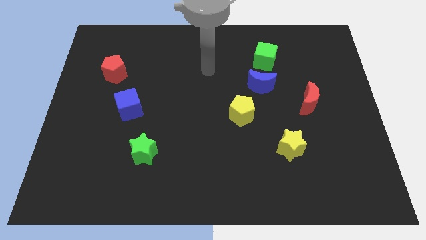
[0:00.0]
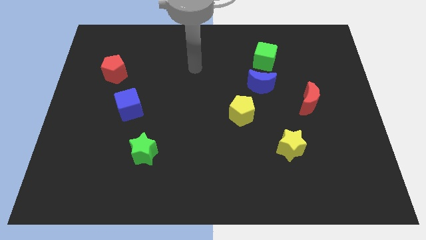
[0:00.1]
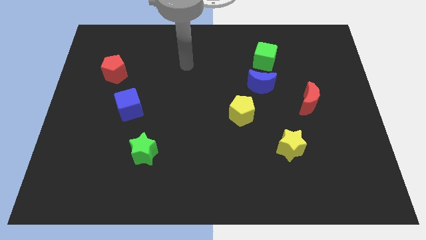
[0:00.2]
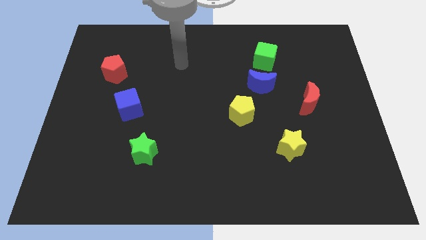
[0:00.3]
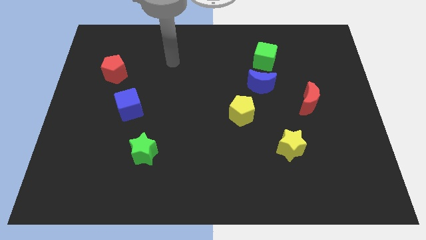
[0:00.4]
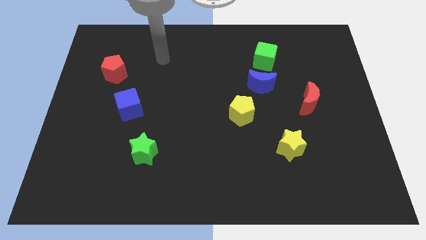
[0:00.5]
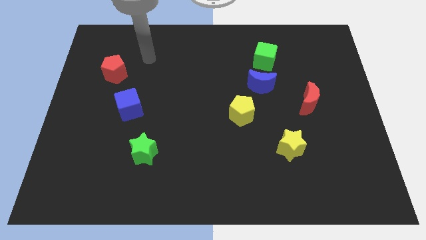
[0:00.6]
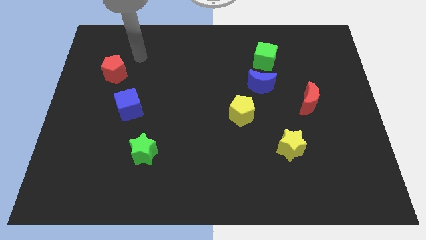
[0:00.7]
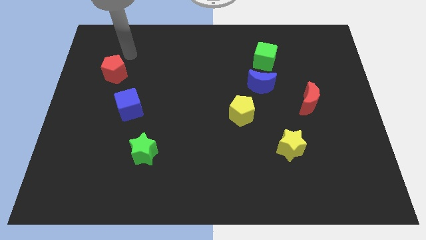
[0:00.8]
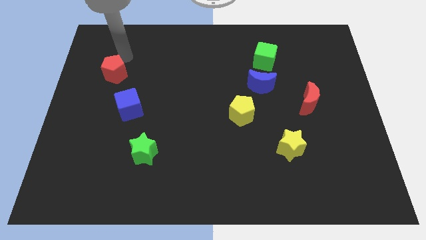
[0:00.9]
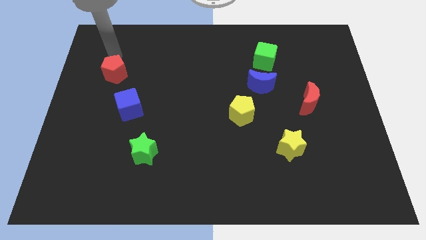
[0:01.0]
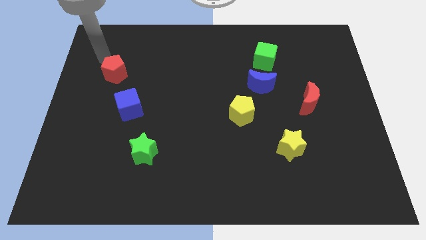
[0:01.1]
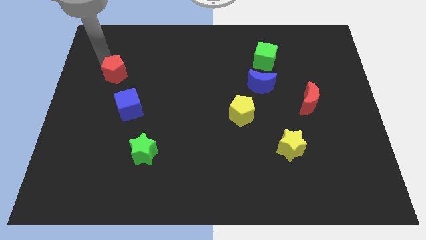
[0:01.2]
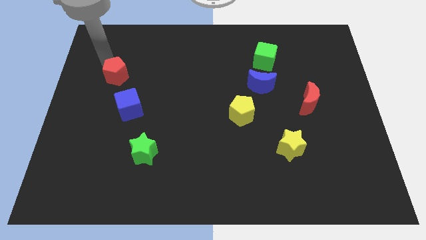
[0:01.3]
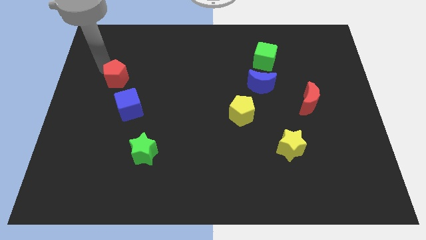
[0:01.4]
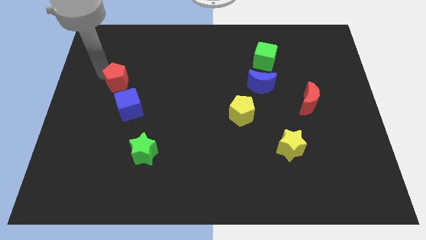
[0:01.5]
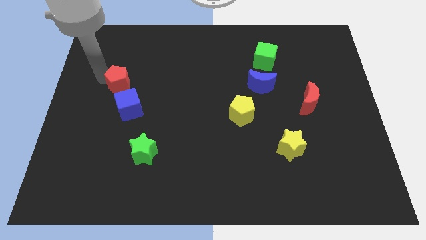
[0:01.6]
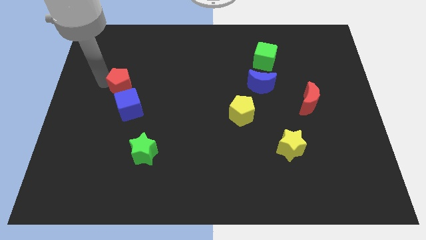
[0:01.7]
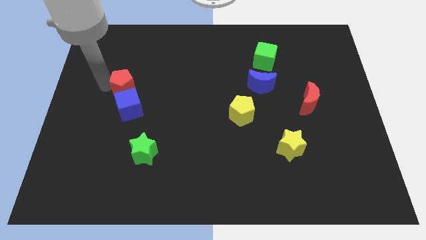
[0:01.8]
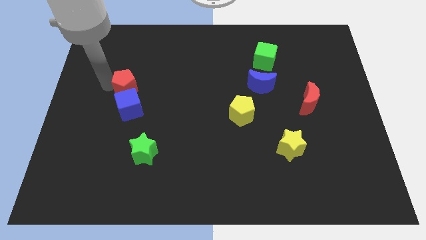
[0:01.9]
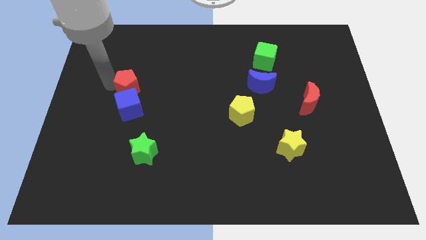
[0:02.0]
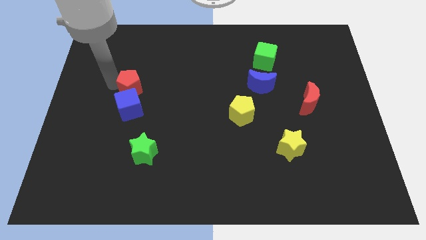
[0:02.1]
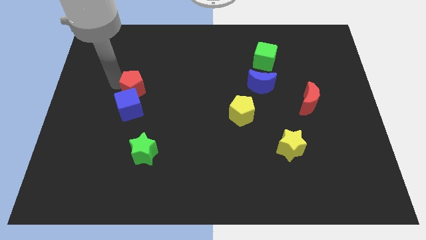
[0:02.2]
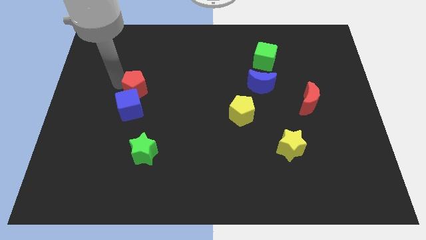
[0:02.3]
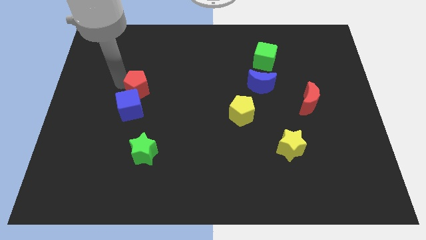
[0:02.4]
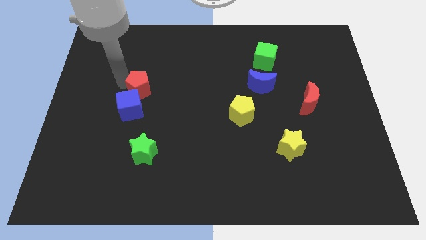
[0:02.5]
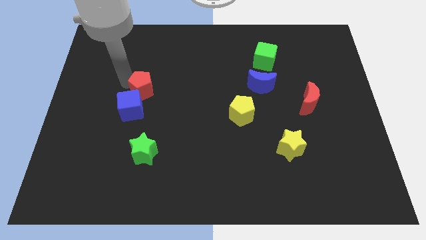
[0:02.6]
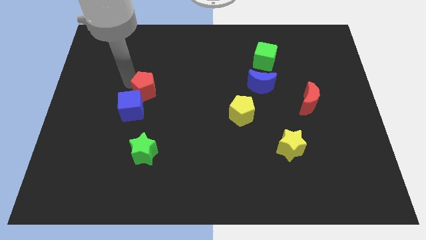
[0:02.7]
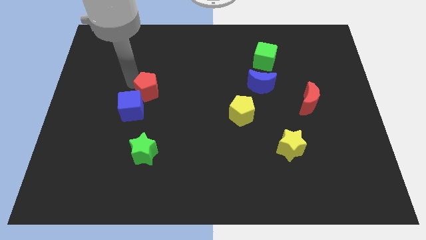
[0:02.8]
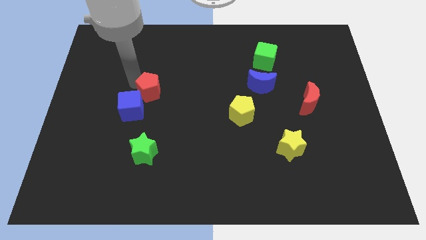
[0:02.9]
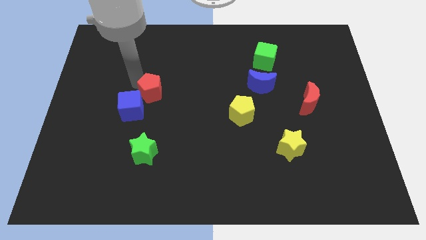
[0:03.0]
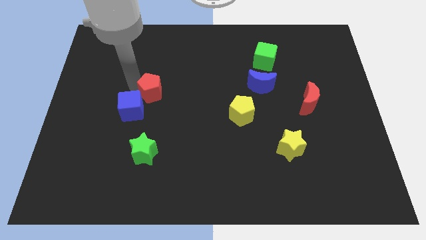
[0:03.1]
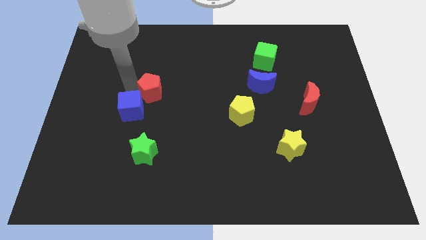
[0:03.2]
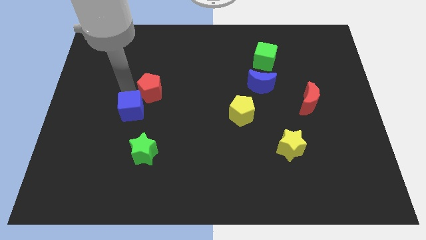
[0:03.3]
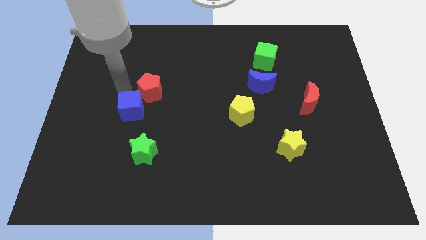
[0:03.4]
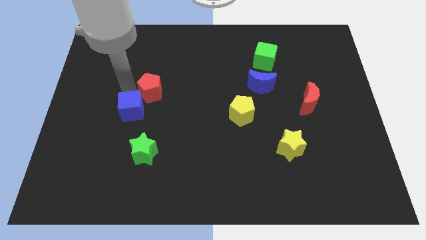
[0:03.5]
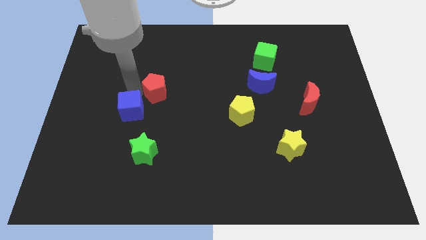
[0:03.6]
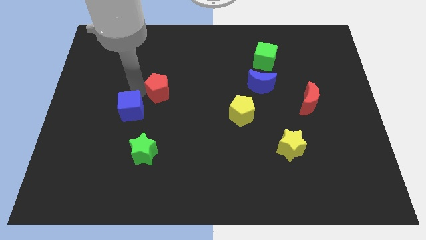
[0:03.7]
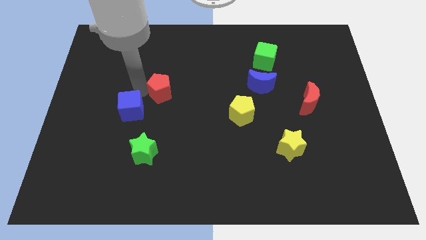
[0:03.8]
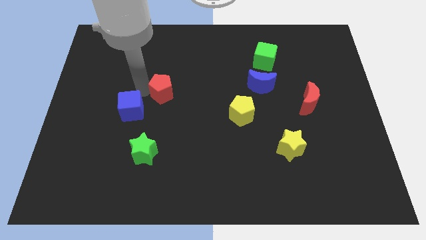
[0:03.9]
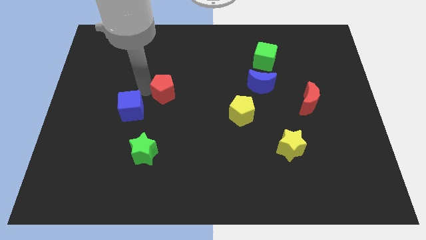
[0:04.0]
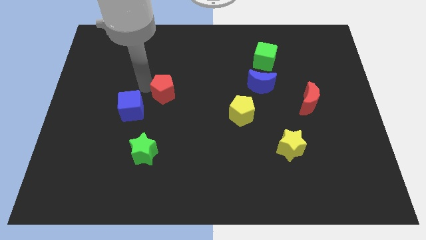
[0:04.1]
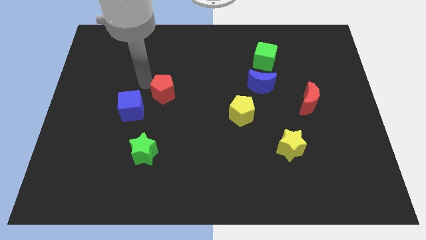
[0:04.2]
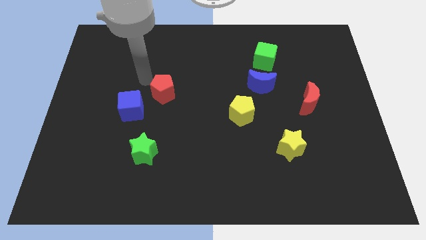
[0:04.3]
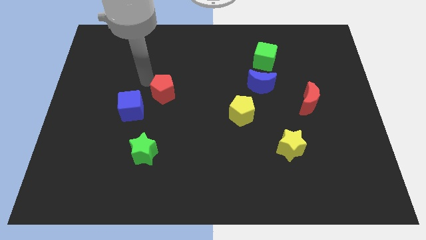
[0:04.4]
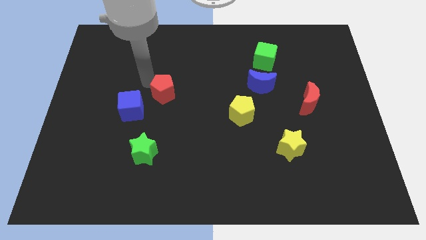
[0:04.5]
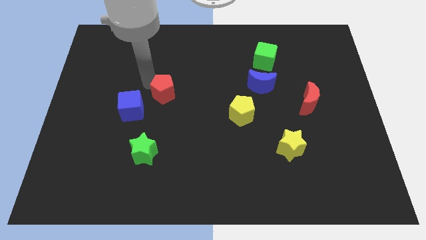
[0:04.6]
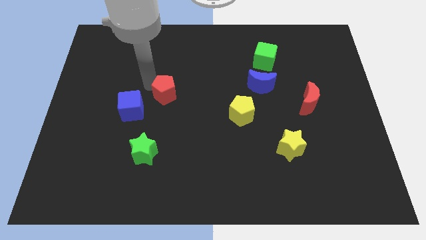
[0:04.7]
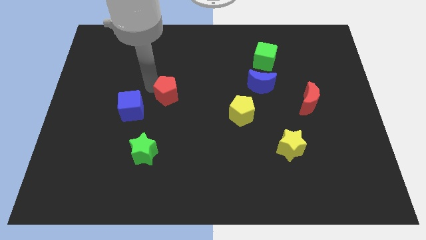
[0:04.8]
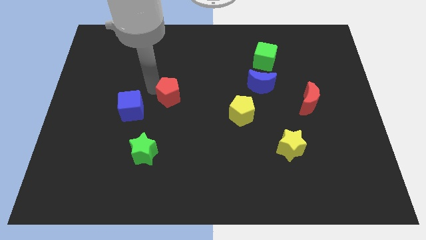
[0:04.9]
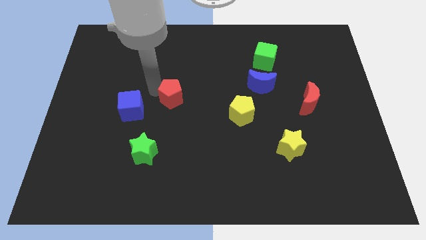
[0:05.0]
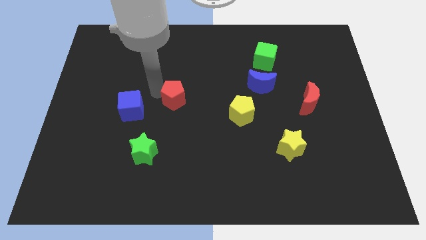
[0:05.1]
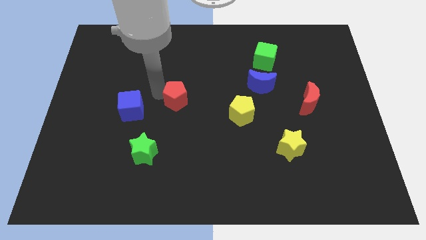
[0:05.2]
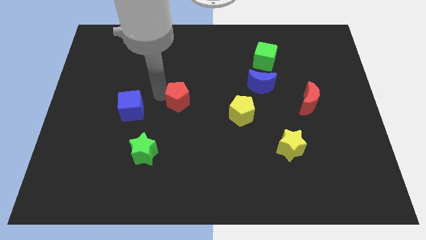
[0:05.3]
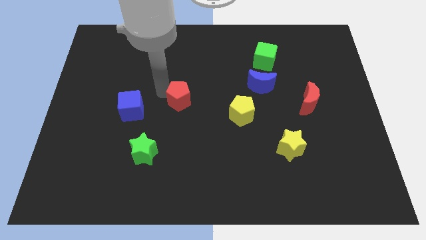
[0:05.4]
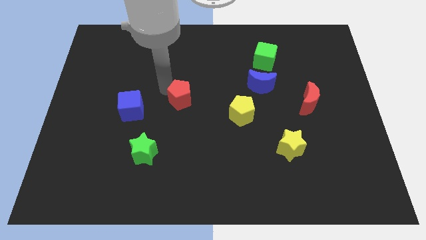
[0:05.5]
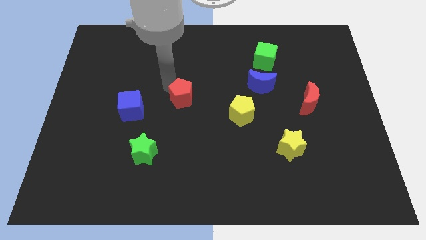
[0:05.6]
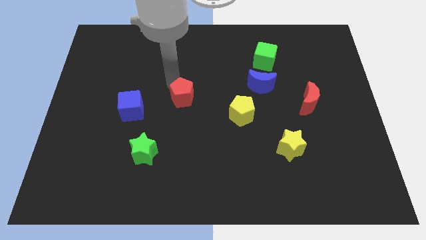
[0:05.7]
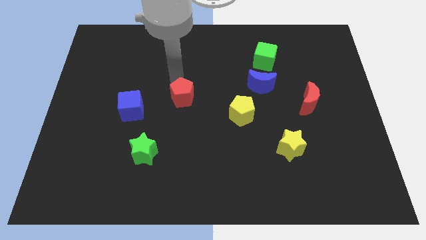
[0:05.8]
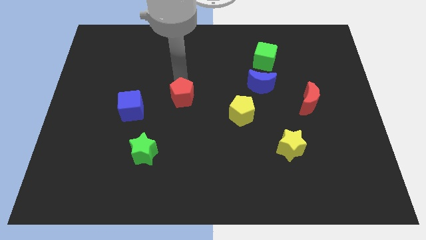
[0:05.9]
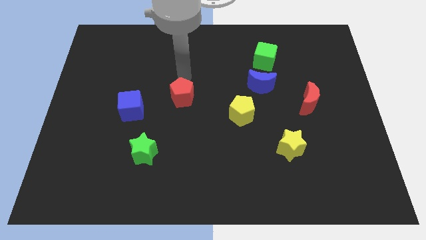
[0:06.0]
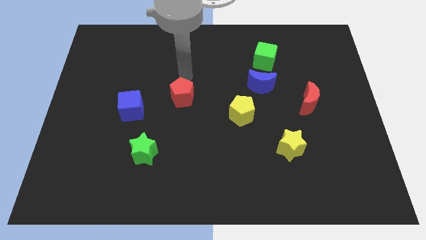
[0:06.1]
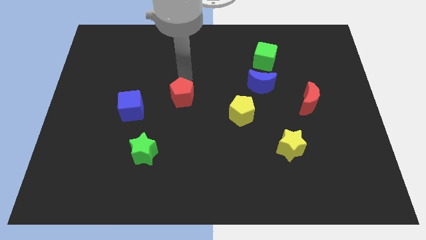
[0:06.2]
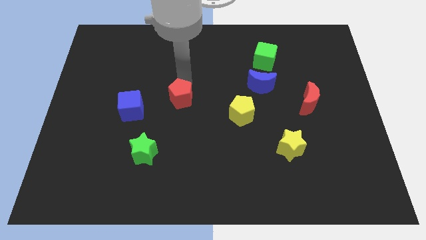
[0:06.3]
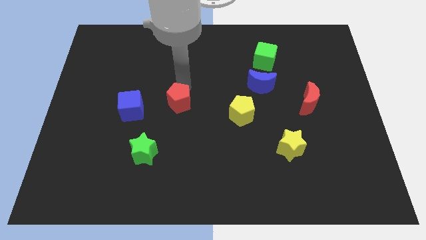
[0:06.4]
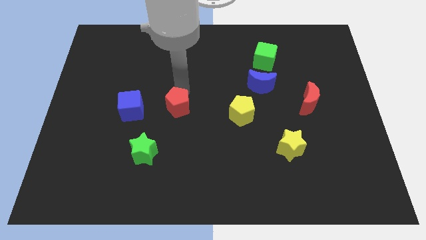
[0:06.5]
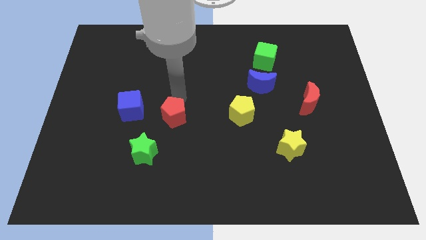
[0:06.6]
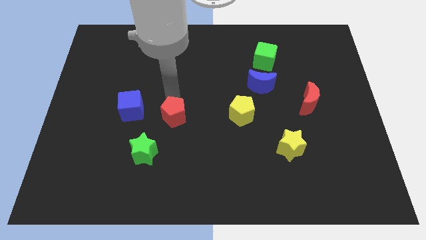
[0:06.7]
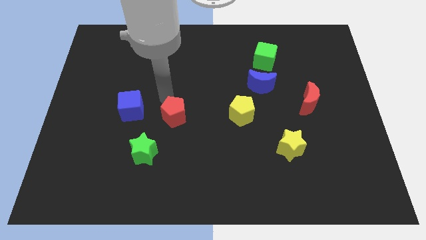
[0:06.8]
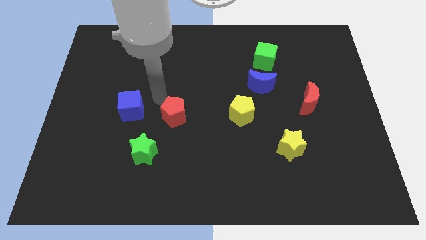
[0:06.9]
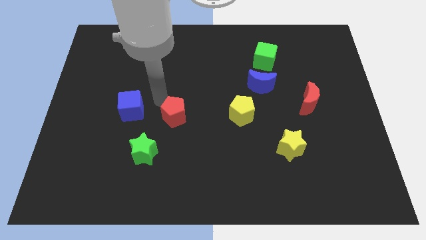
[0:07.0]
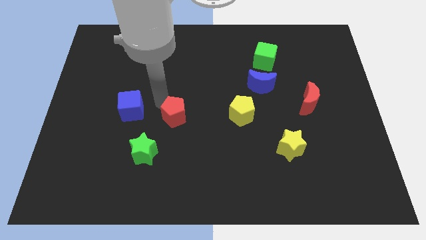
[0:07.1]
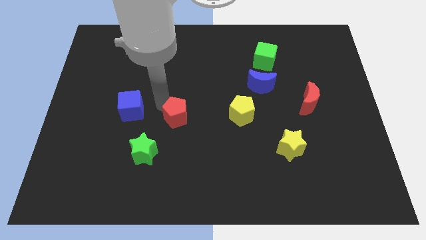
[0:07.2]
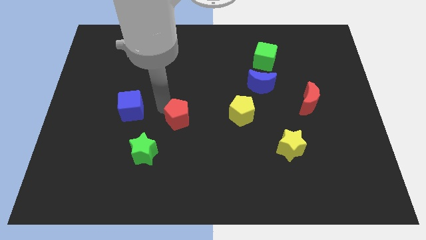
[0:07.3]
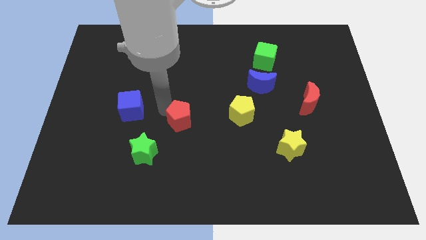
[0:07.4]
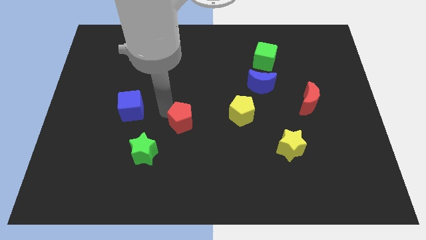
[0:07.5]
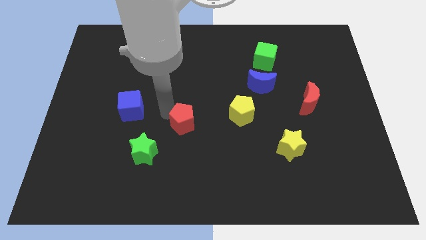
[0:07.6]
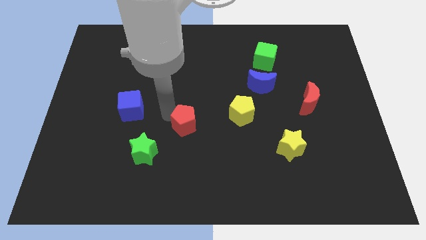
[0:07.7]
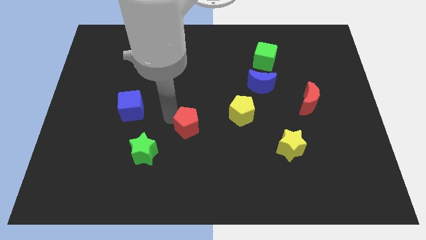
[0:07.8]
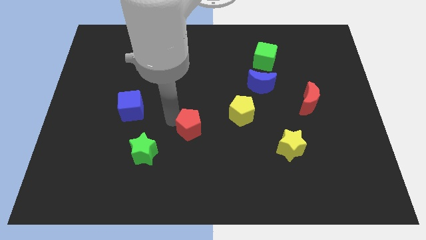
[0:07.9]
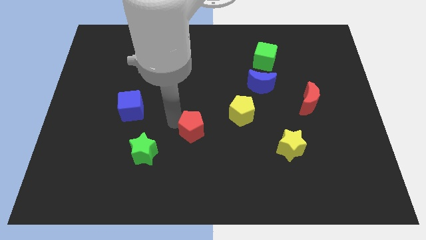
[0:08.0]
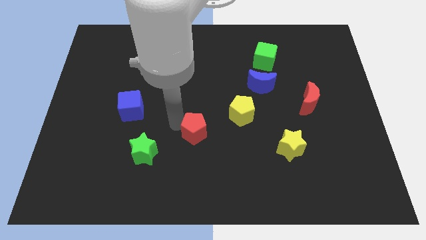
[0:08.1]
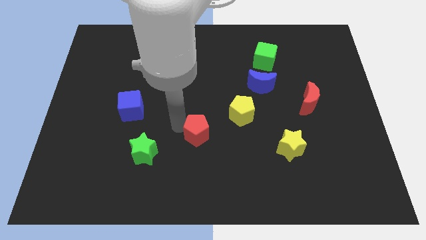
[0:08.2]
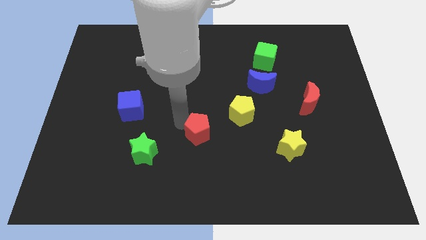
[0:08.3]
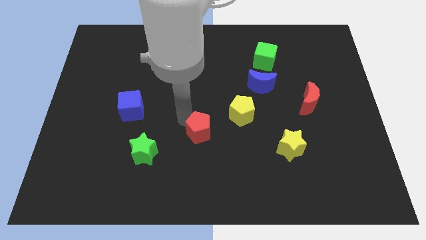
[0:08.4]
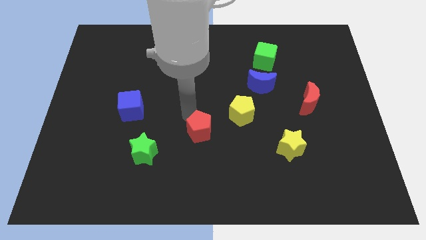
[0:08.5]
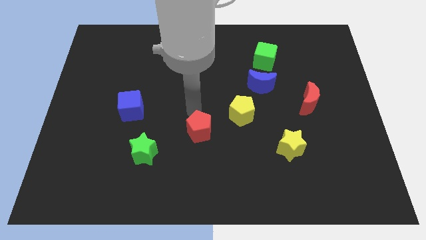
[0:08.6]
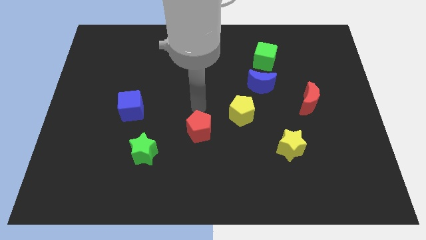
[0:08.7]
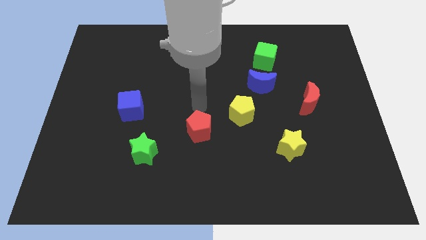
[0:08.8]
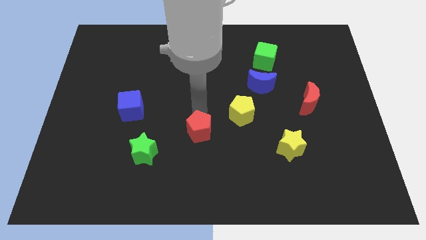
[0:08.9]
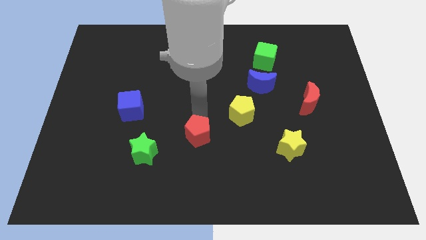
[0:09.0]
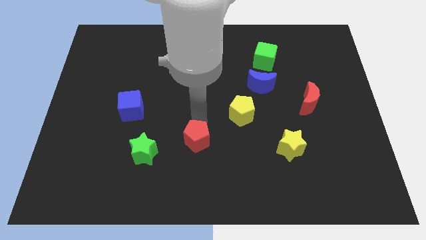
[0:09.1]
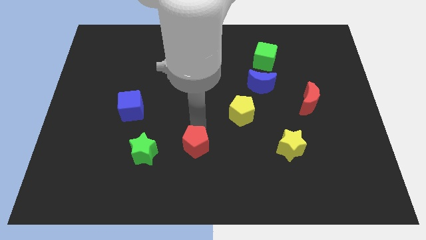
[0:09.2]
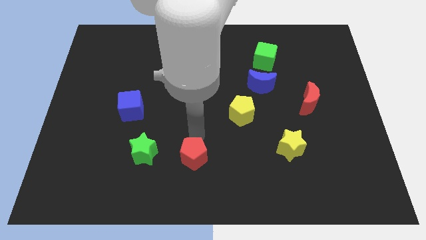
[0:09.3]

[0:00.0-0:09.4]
push the red pentagon to the bottom side
